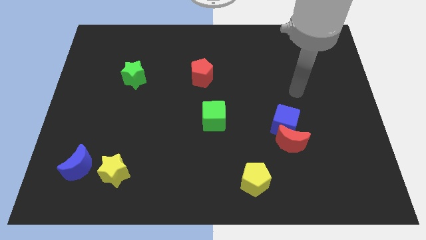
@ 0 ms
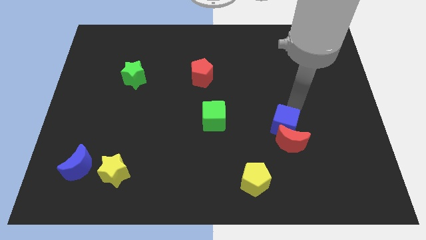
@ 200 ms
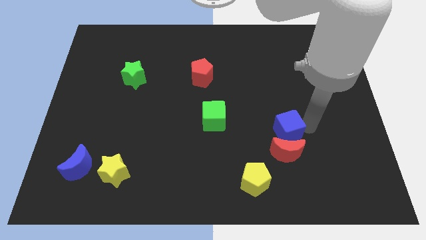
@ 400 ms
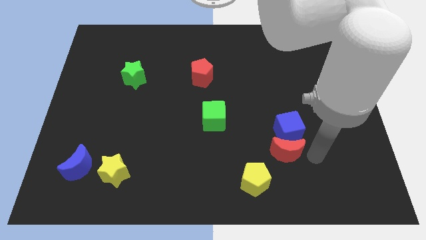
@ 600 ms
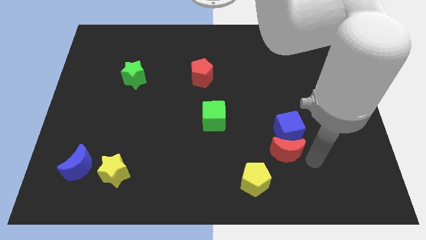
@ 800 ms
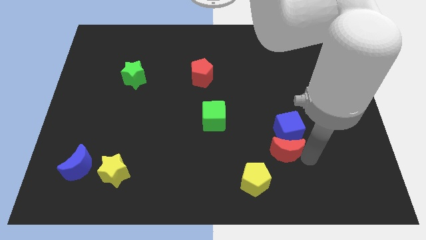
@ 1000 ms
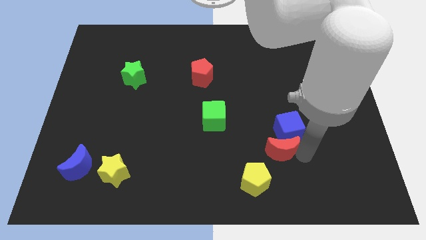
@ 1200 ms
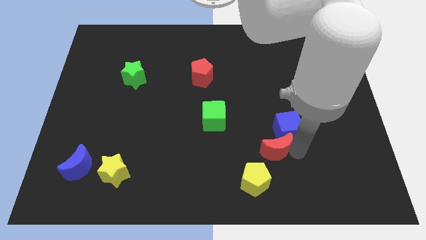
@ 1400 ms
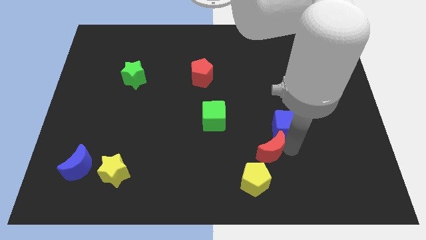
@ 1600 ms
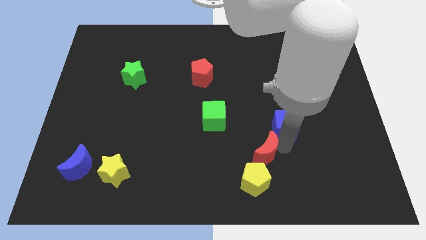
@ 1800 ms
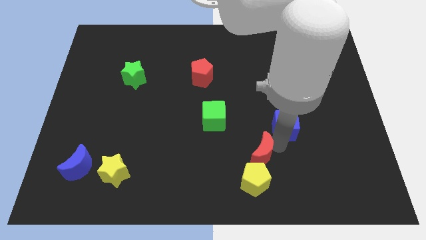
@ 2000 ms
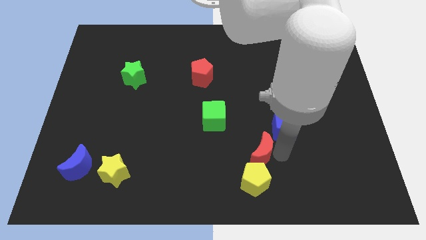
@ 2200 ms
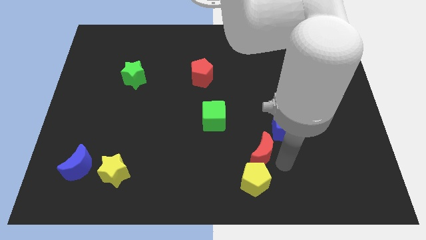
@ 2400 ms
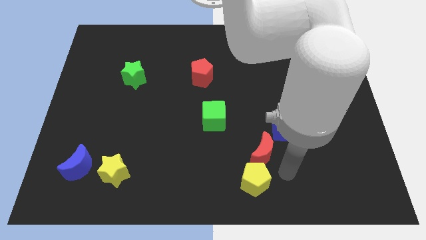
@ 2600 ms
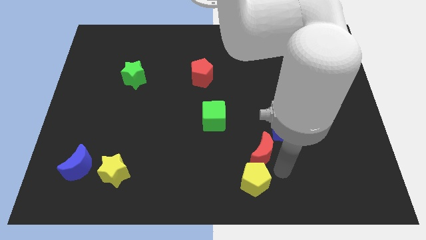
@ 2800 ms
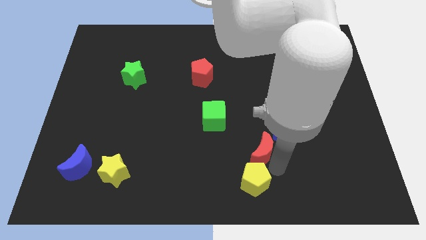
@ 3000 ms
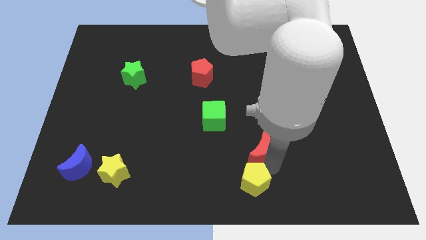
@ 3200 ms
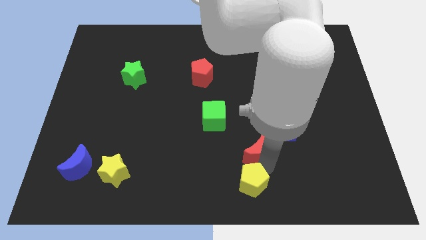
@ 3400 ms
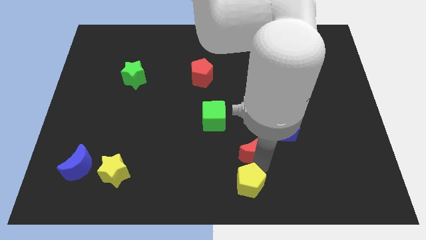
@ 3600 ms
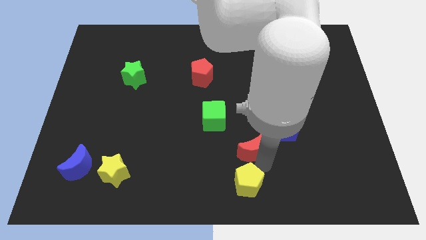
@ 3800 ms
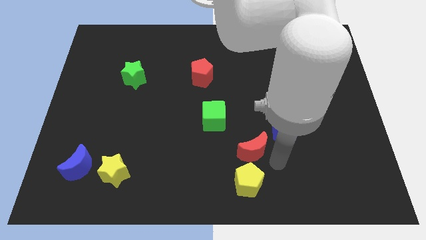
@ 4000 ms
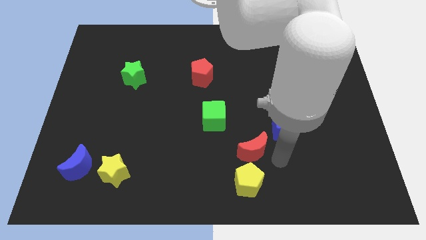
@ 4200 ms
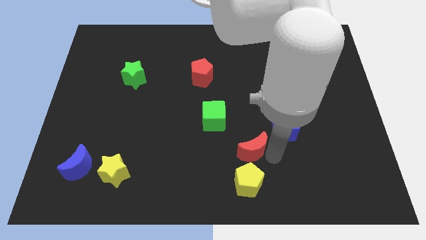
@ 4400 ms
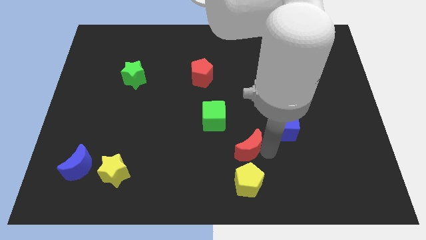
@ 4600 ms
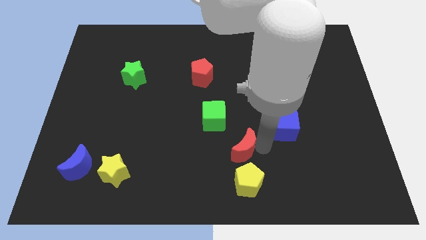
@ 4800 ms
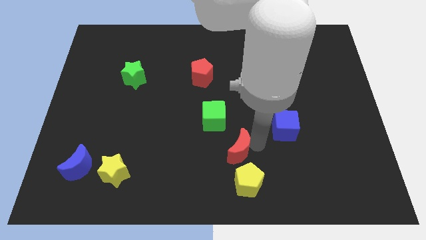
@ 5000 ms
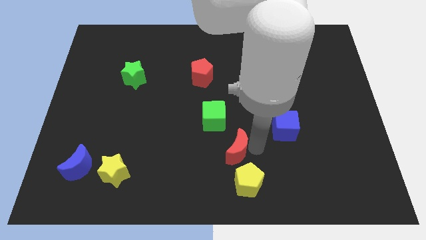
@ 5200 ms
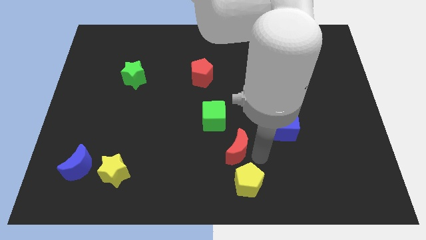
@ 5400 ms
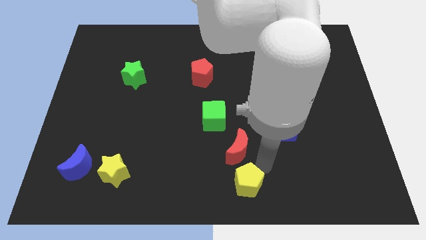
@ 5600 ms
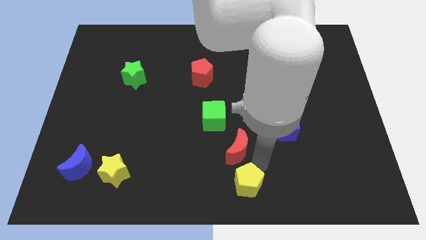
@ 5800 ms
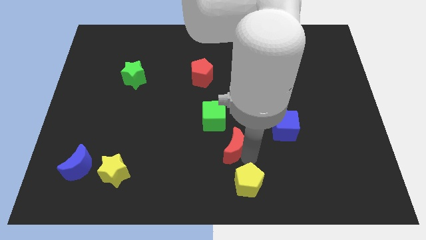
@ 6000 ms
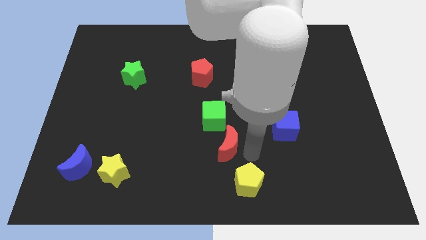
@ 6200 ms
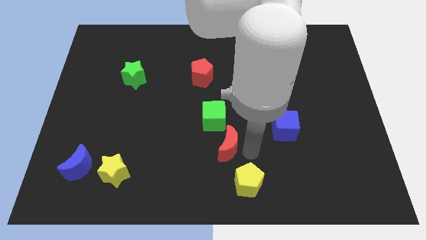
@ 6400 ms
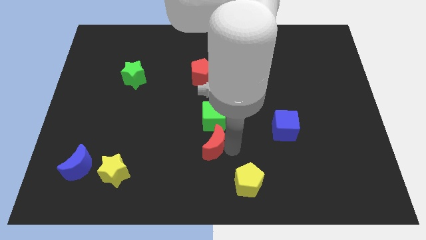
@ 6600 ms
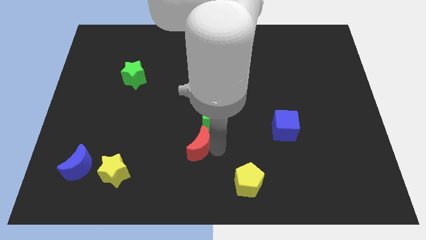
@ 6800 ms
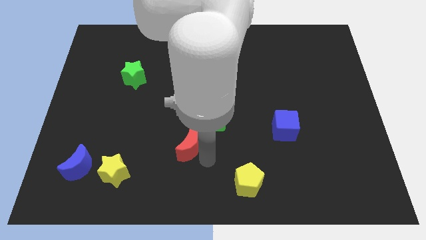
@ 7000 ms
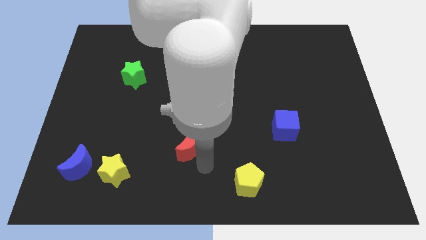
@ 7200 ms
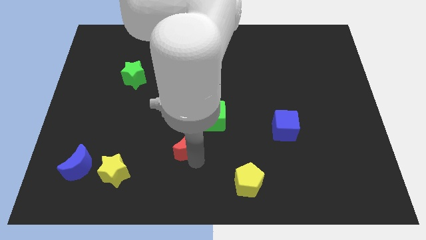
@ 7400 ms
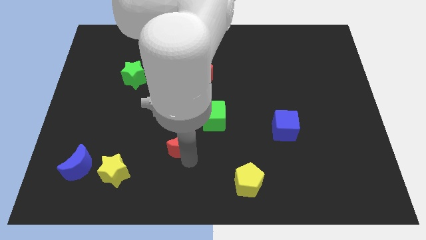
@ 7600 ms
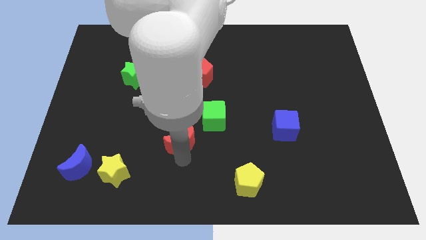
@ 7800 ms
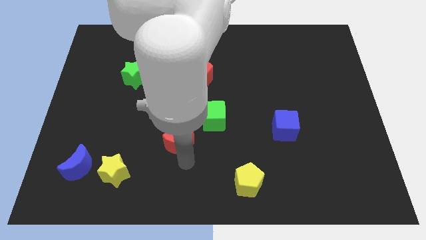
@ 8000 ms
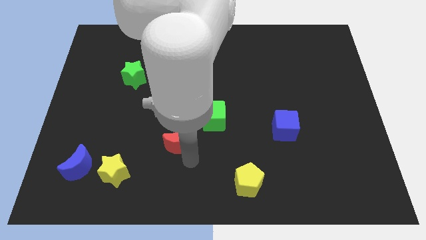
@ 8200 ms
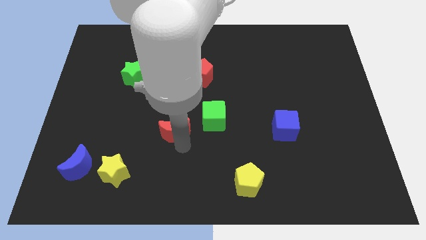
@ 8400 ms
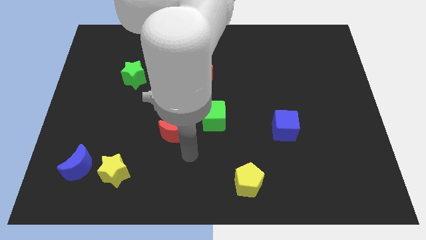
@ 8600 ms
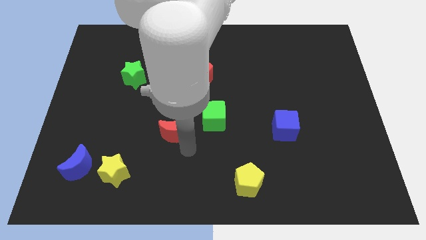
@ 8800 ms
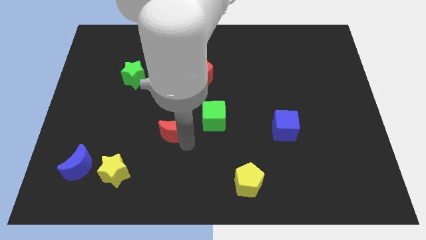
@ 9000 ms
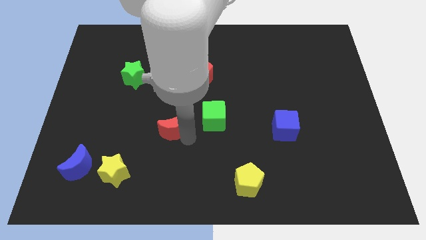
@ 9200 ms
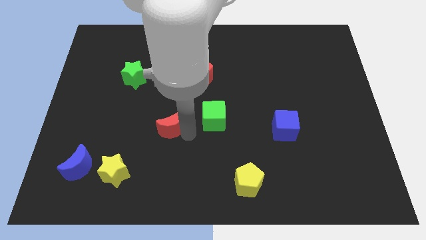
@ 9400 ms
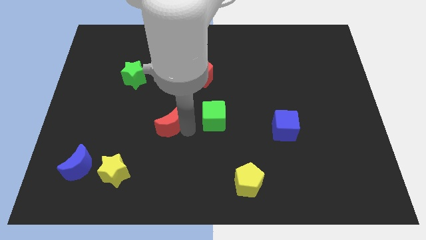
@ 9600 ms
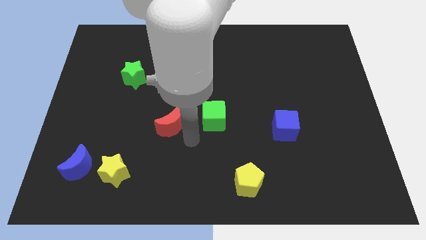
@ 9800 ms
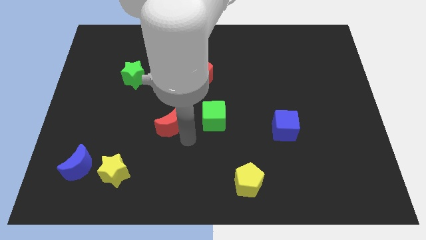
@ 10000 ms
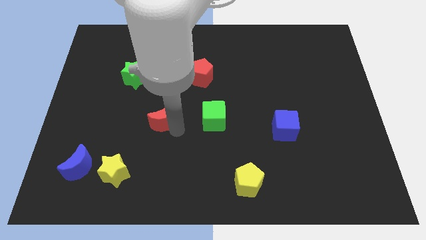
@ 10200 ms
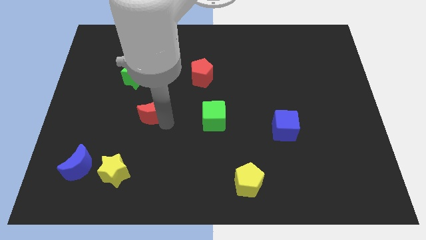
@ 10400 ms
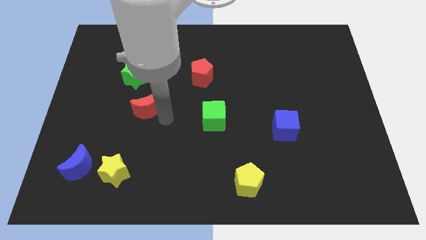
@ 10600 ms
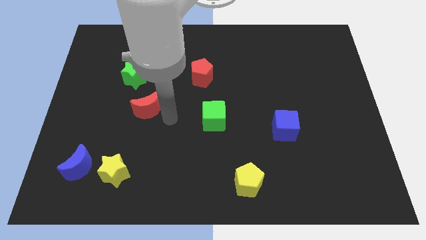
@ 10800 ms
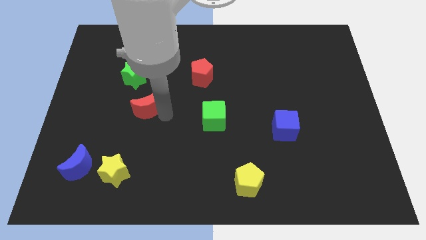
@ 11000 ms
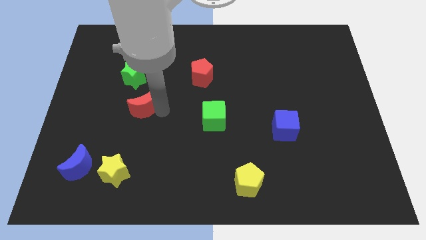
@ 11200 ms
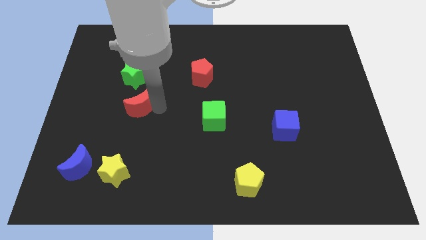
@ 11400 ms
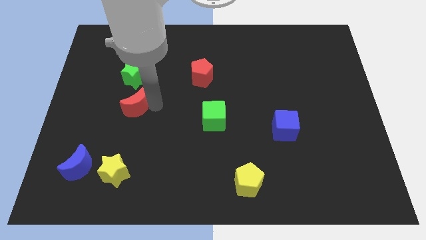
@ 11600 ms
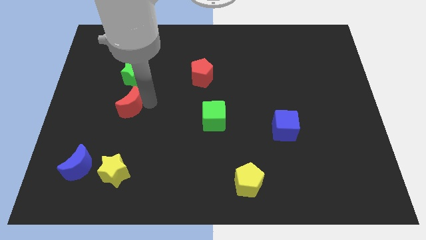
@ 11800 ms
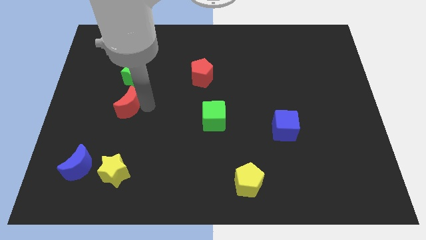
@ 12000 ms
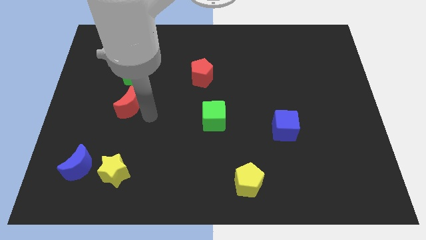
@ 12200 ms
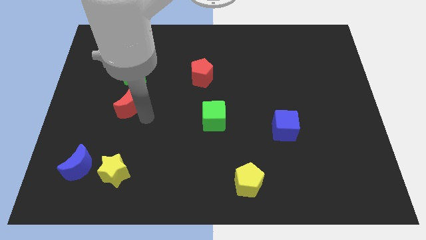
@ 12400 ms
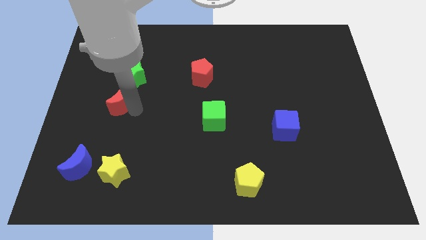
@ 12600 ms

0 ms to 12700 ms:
put the red moon diagonally down and to the left of the green star
